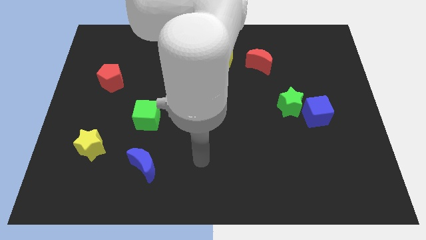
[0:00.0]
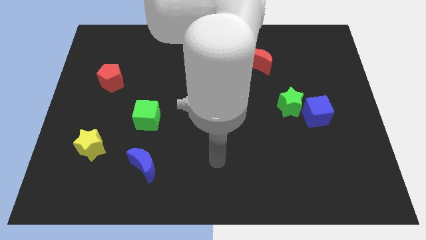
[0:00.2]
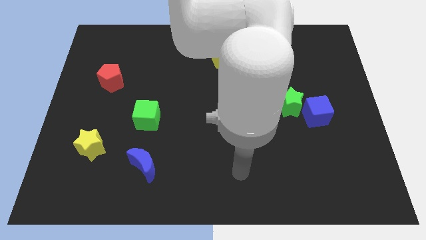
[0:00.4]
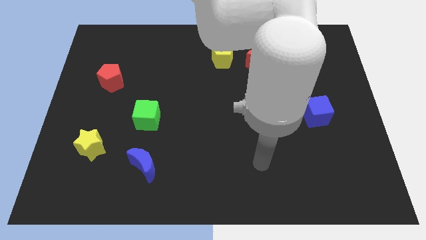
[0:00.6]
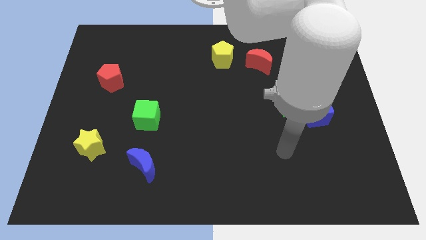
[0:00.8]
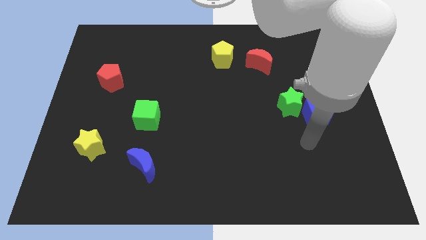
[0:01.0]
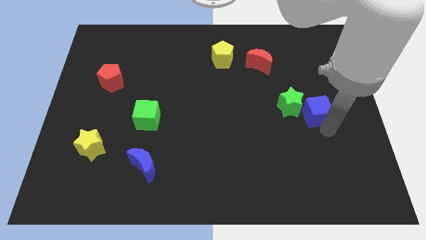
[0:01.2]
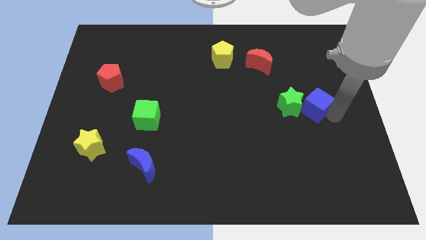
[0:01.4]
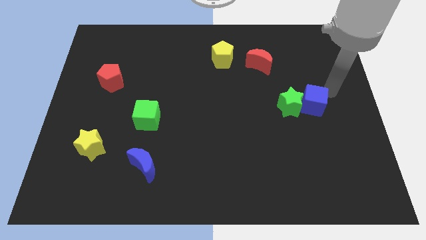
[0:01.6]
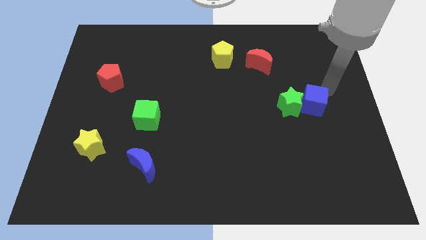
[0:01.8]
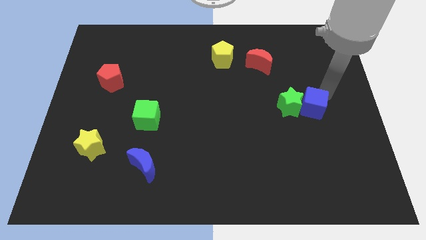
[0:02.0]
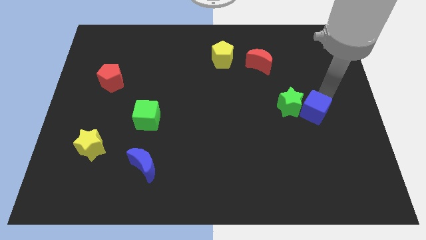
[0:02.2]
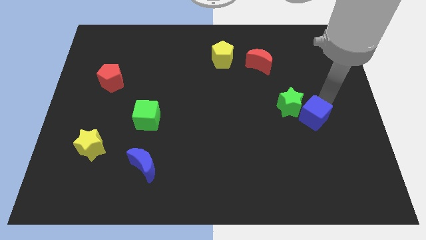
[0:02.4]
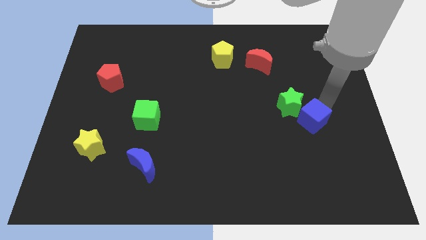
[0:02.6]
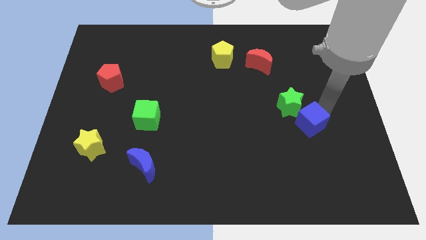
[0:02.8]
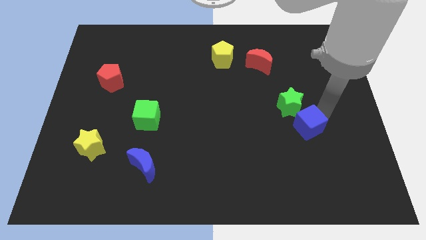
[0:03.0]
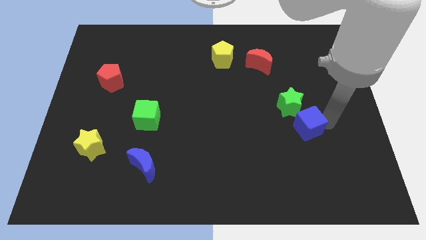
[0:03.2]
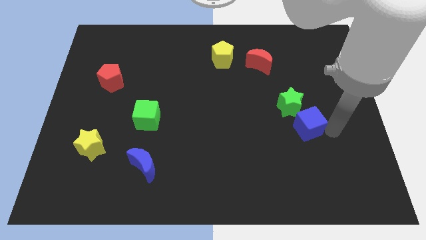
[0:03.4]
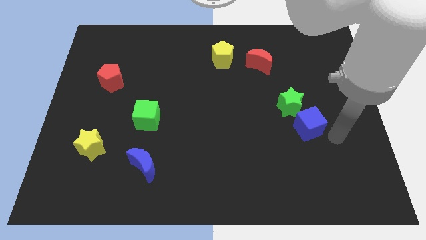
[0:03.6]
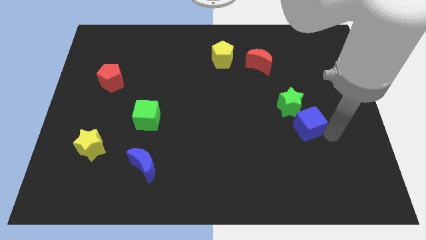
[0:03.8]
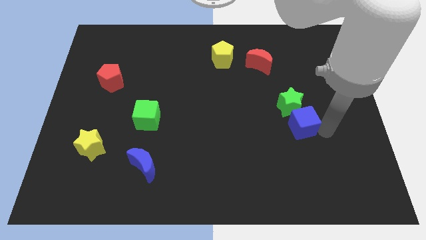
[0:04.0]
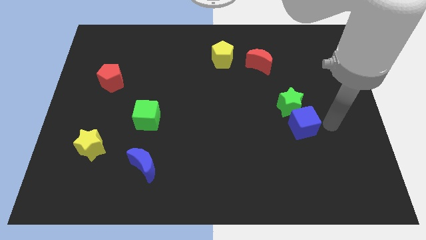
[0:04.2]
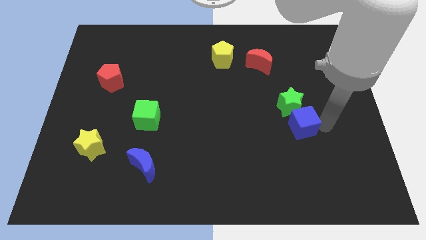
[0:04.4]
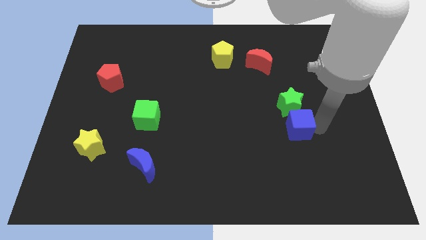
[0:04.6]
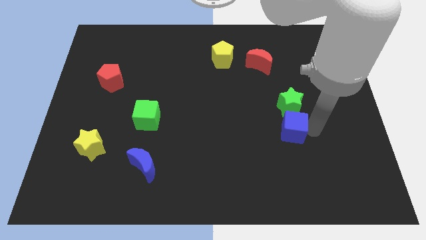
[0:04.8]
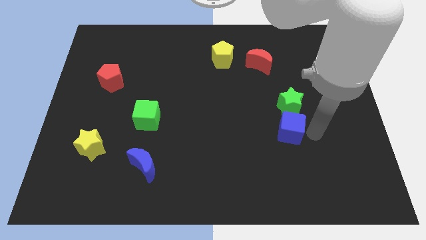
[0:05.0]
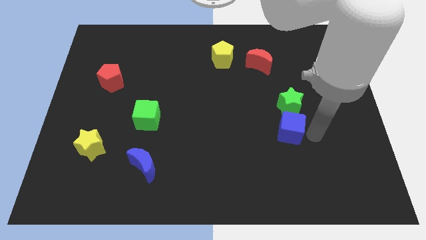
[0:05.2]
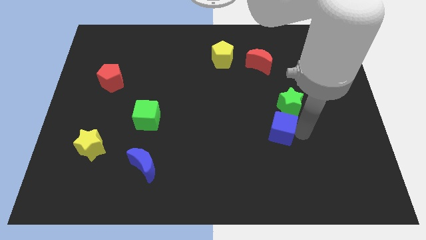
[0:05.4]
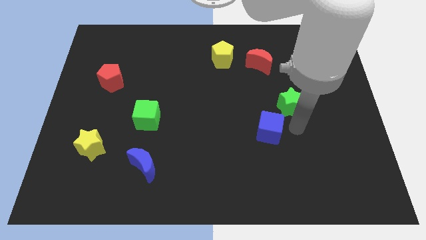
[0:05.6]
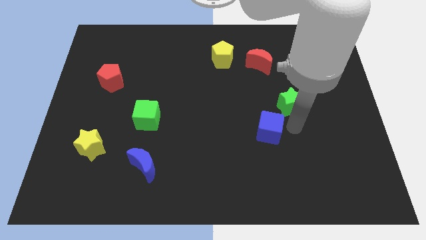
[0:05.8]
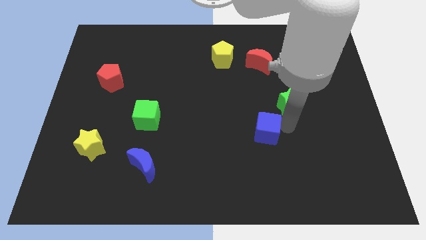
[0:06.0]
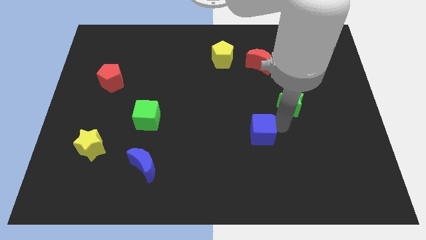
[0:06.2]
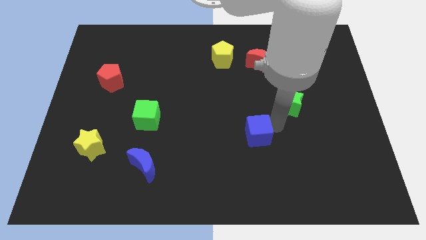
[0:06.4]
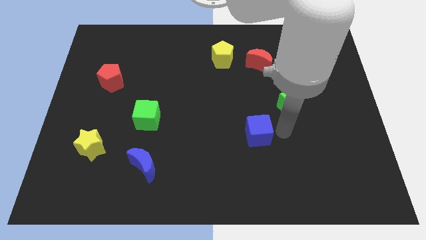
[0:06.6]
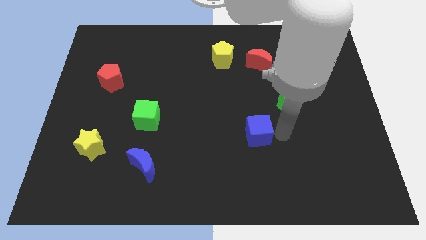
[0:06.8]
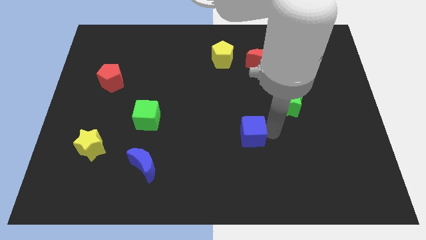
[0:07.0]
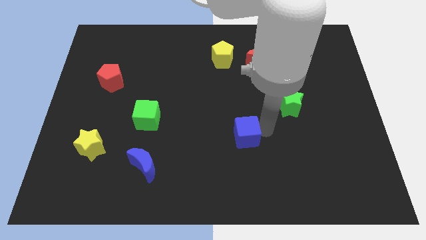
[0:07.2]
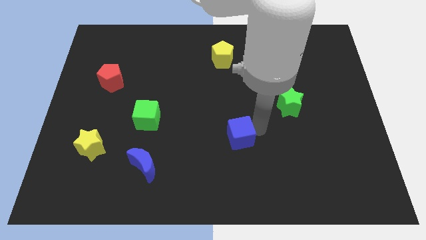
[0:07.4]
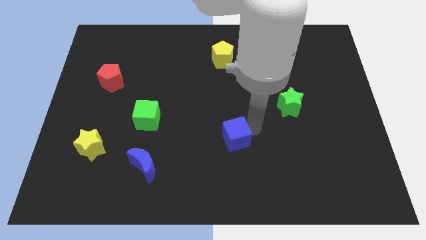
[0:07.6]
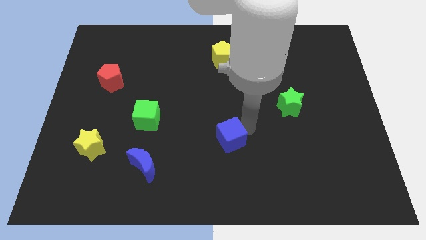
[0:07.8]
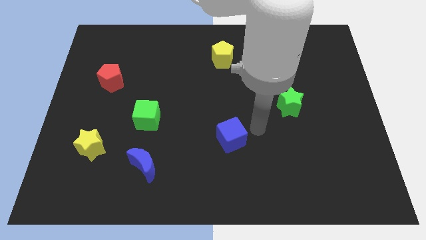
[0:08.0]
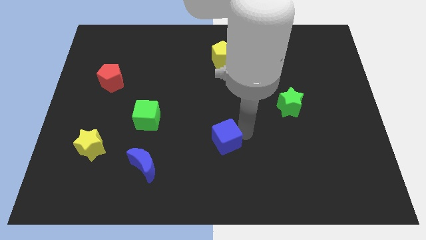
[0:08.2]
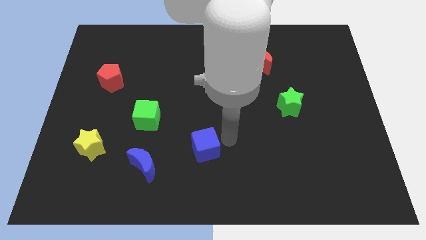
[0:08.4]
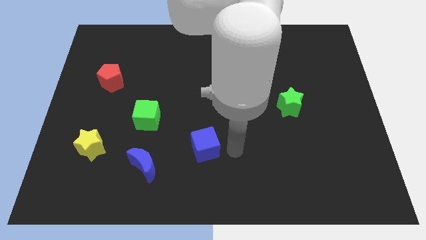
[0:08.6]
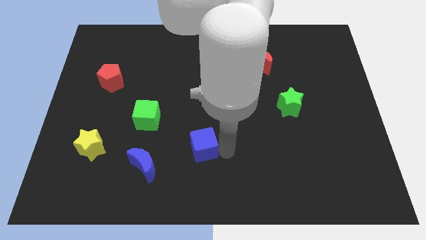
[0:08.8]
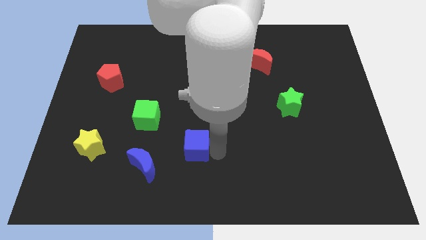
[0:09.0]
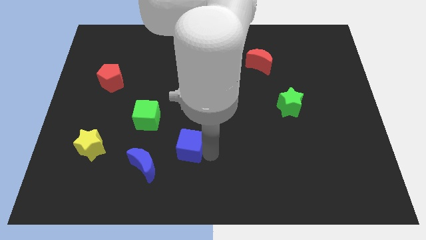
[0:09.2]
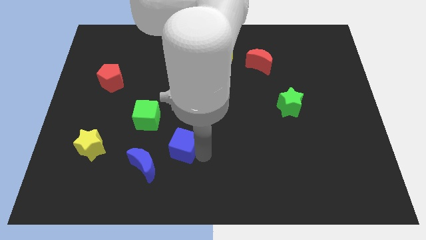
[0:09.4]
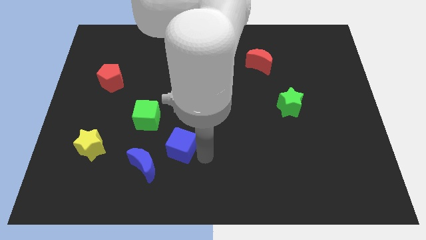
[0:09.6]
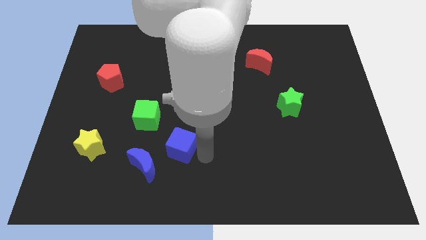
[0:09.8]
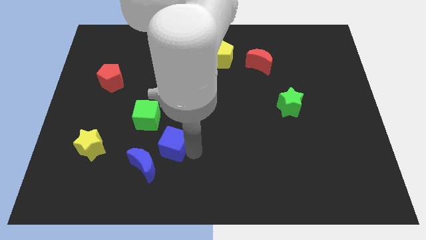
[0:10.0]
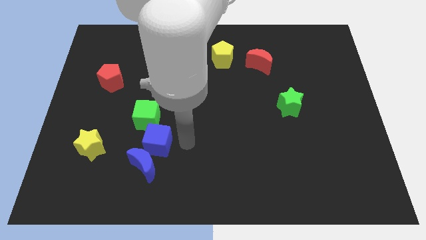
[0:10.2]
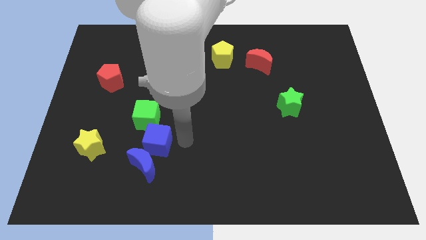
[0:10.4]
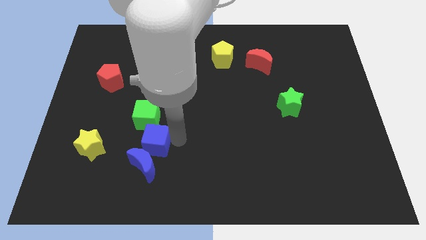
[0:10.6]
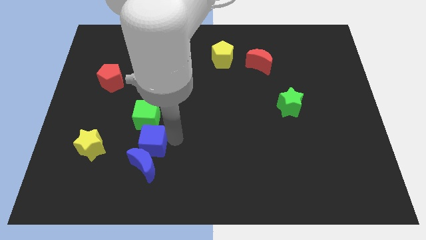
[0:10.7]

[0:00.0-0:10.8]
move the blue cube to the top left side of the blue moon

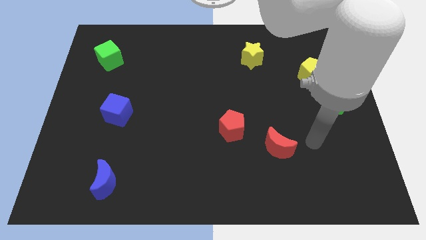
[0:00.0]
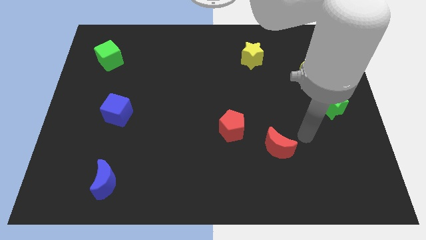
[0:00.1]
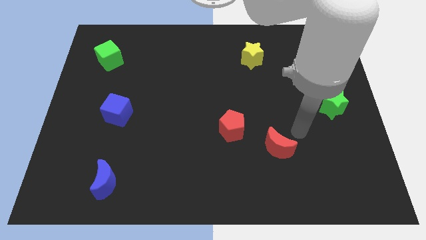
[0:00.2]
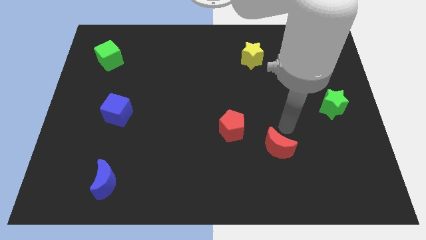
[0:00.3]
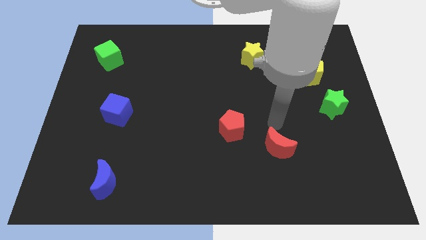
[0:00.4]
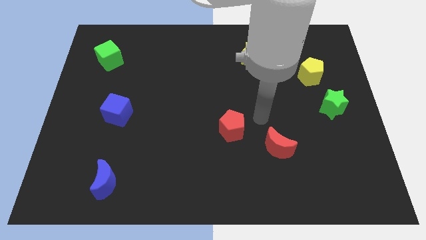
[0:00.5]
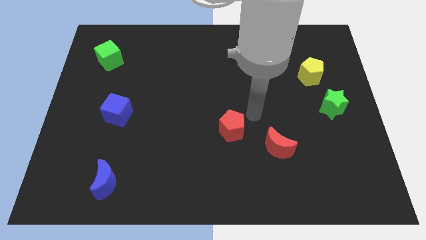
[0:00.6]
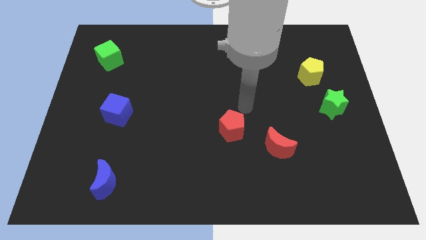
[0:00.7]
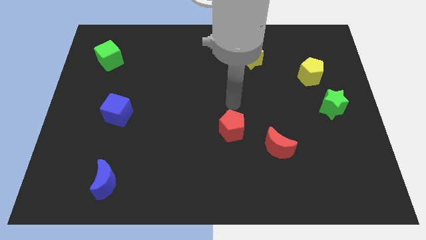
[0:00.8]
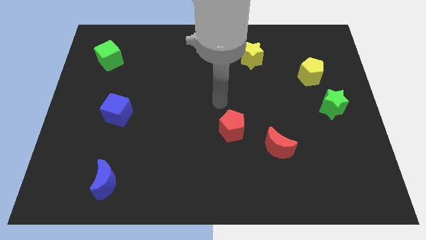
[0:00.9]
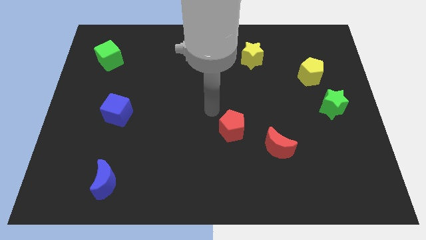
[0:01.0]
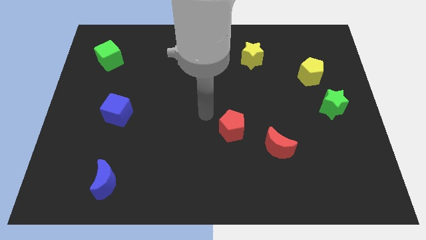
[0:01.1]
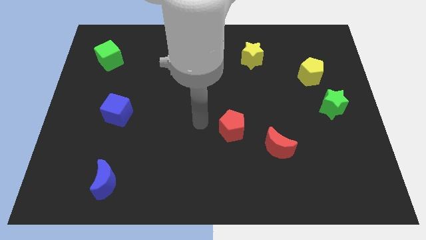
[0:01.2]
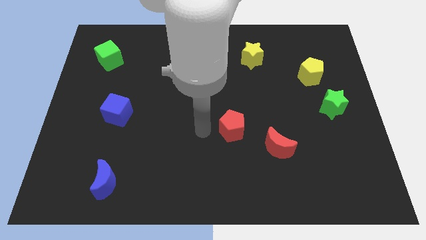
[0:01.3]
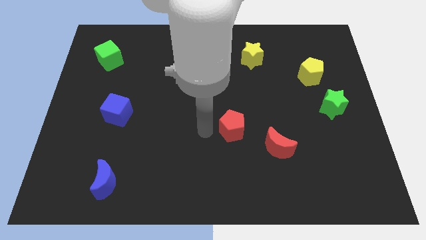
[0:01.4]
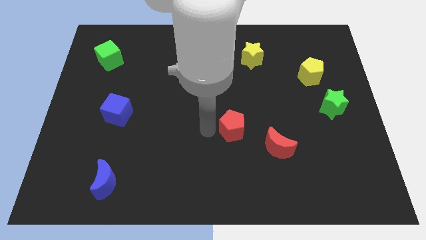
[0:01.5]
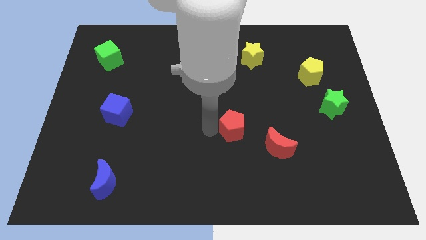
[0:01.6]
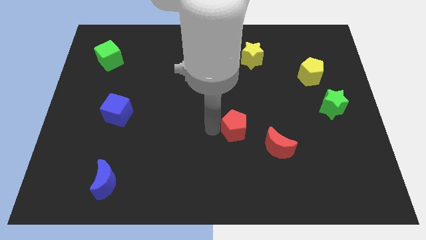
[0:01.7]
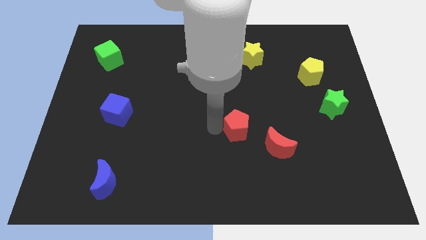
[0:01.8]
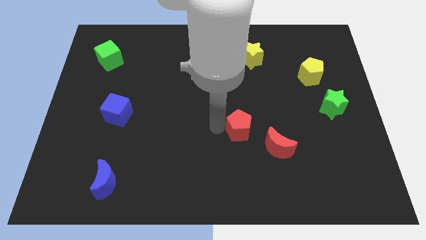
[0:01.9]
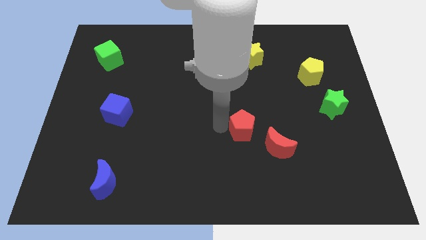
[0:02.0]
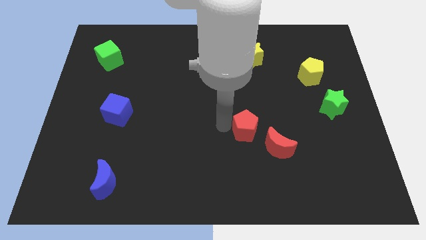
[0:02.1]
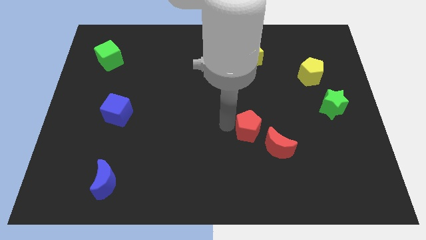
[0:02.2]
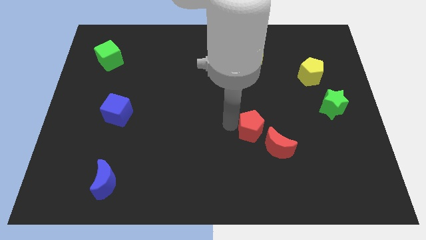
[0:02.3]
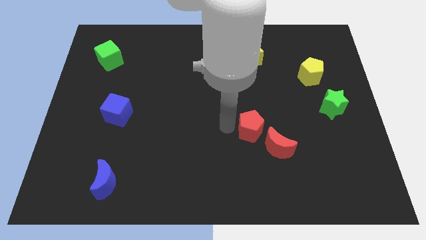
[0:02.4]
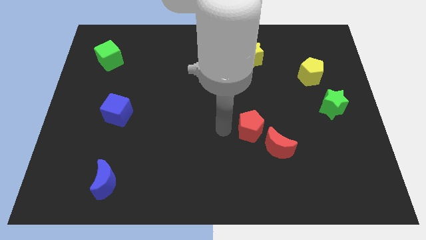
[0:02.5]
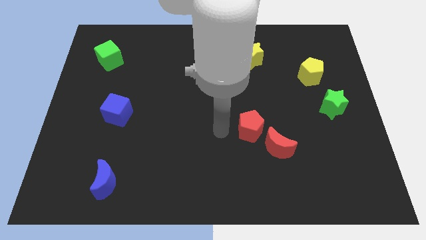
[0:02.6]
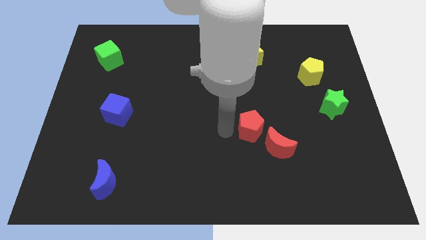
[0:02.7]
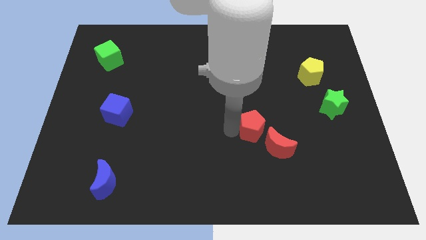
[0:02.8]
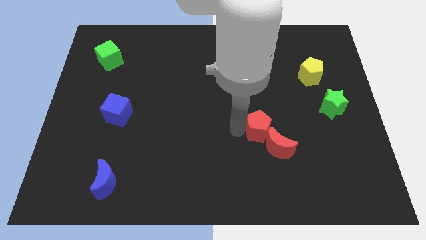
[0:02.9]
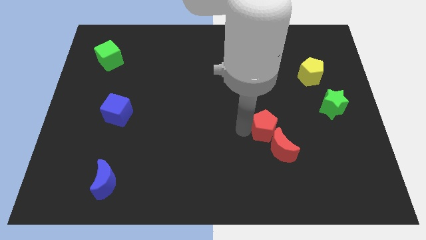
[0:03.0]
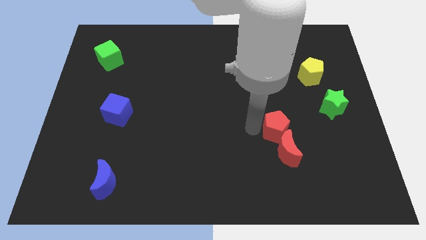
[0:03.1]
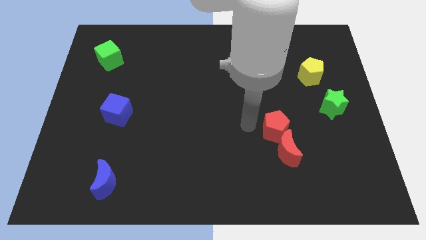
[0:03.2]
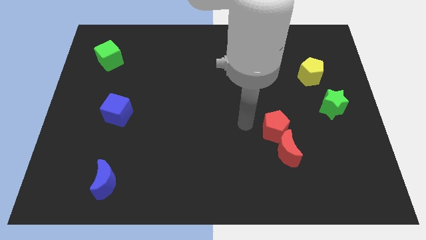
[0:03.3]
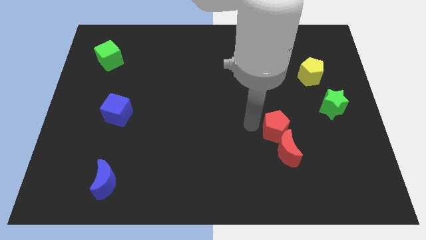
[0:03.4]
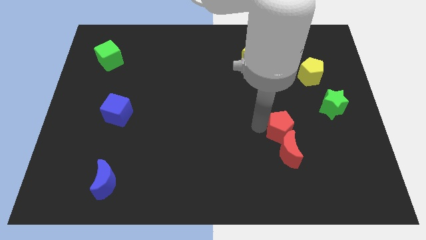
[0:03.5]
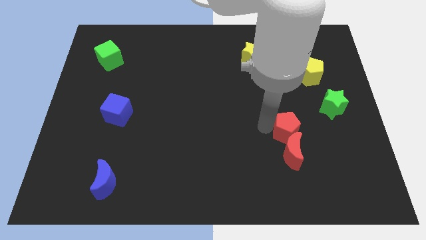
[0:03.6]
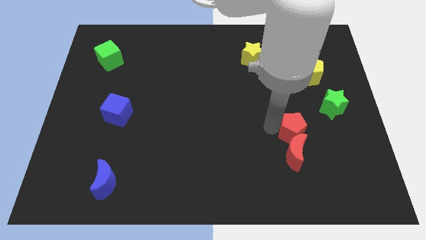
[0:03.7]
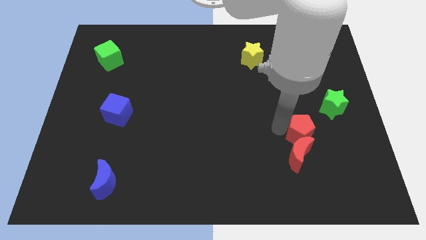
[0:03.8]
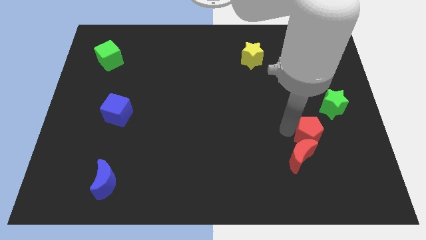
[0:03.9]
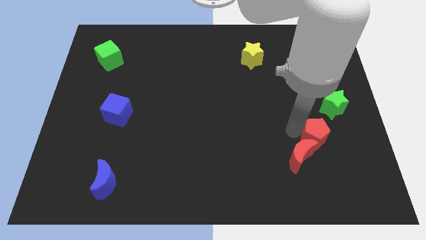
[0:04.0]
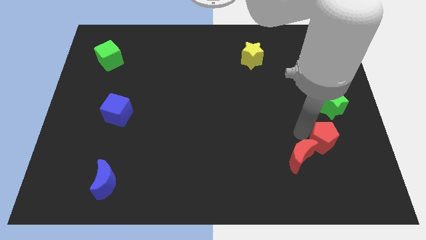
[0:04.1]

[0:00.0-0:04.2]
slide the red pentagon below the green star
